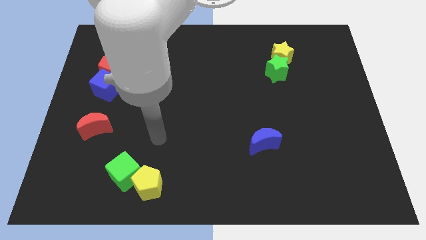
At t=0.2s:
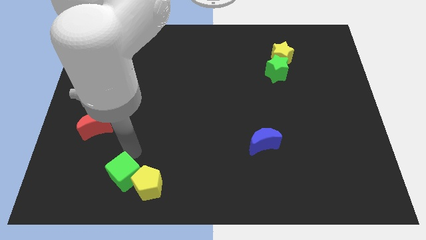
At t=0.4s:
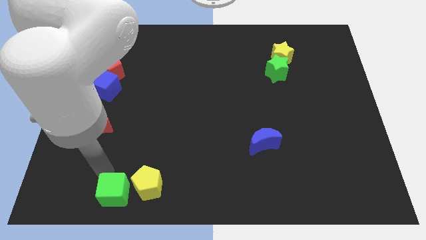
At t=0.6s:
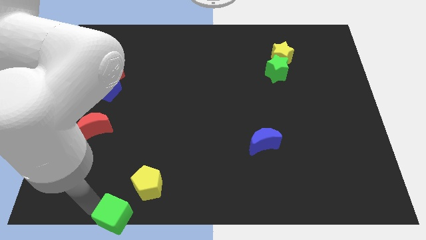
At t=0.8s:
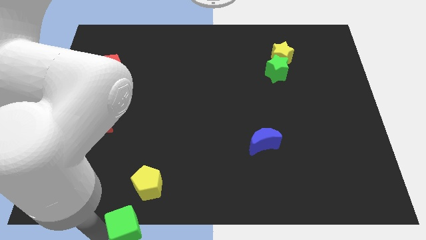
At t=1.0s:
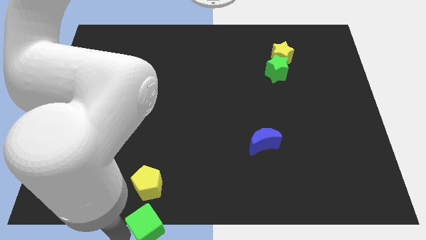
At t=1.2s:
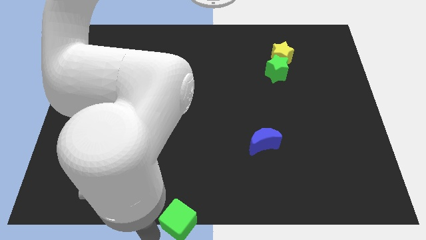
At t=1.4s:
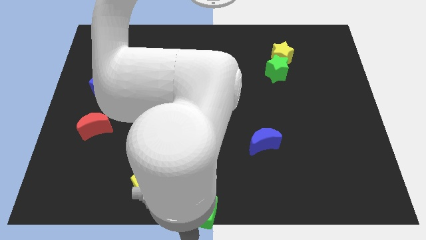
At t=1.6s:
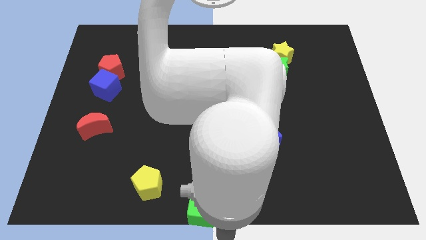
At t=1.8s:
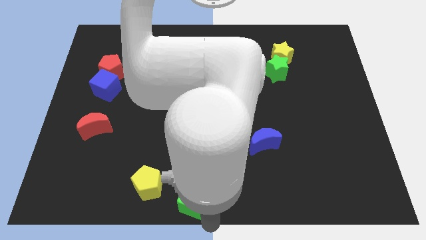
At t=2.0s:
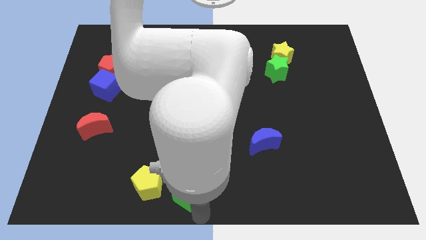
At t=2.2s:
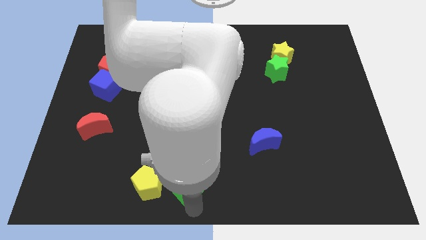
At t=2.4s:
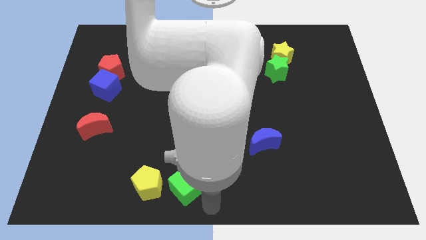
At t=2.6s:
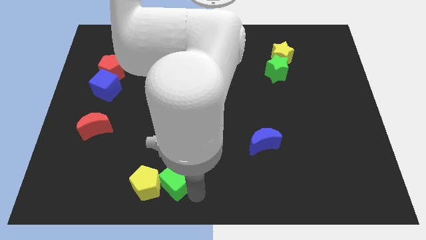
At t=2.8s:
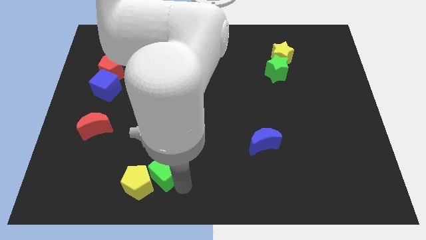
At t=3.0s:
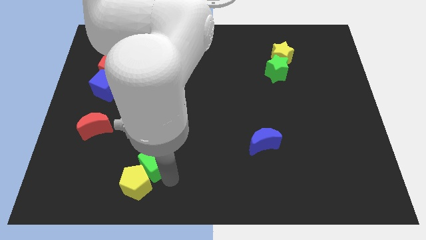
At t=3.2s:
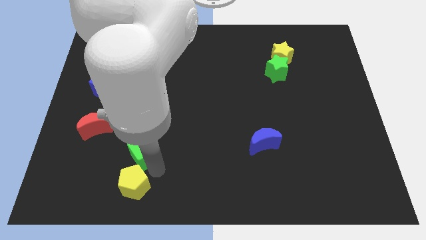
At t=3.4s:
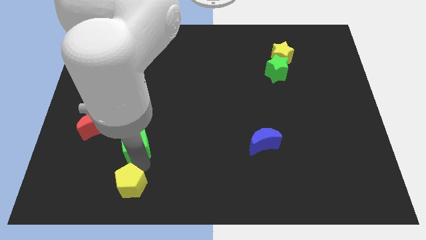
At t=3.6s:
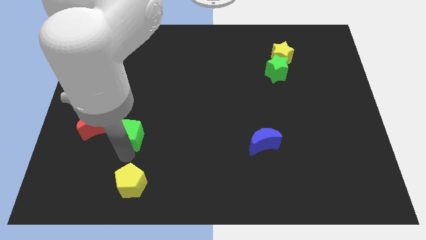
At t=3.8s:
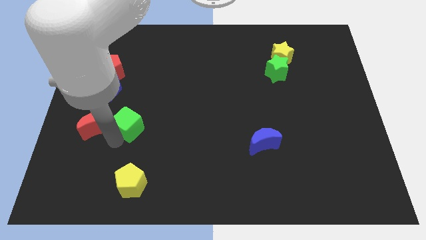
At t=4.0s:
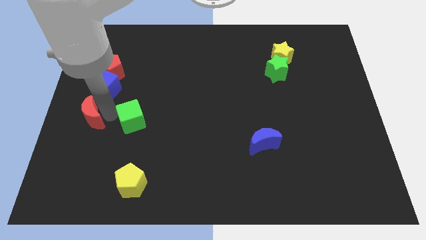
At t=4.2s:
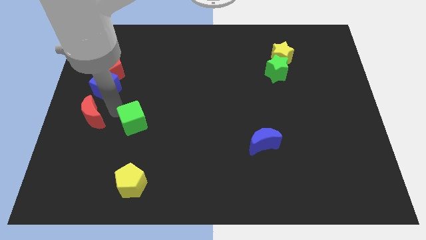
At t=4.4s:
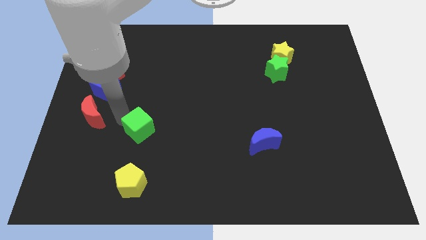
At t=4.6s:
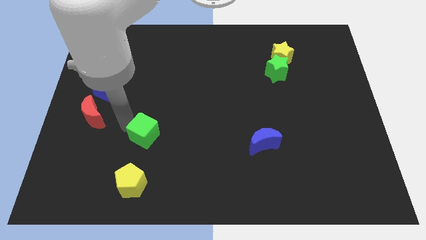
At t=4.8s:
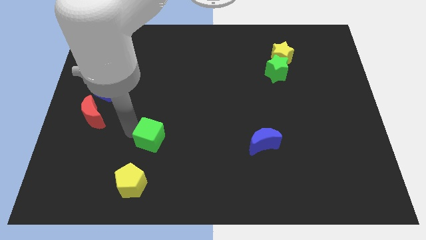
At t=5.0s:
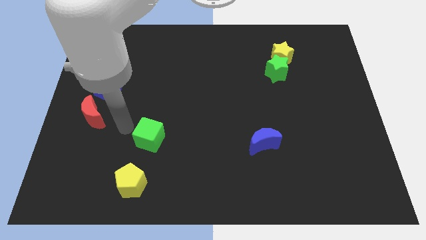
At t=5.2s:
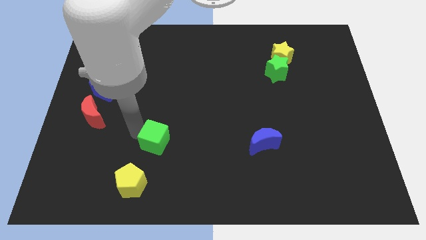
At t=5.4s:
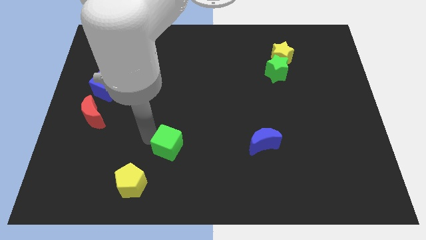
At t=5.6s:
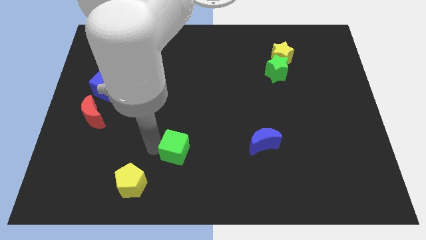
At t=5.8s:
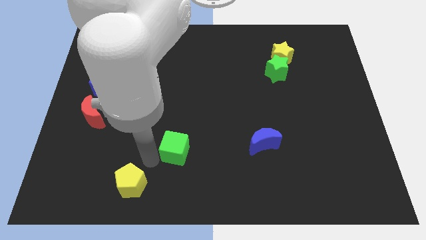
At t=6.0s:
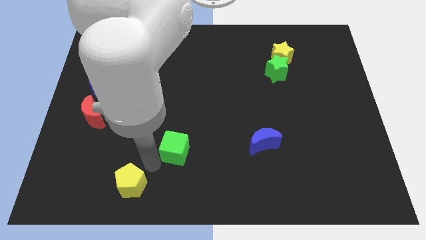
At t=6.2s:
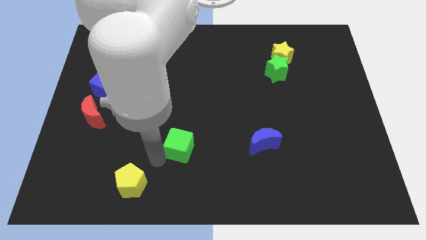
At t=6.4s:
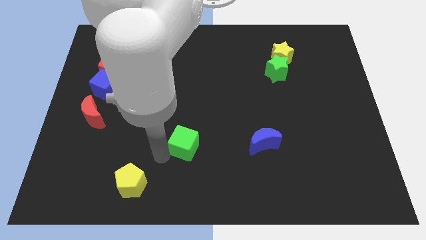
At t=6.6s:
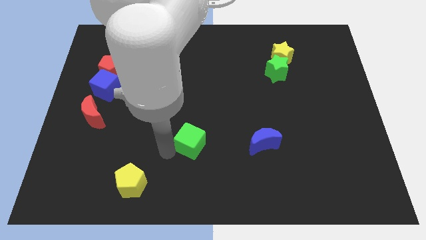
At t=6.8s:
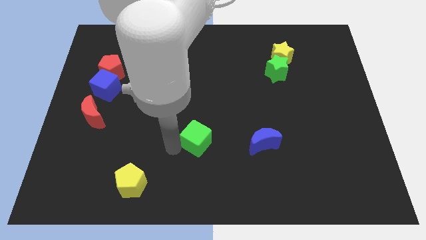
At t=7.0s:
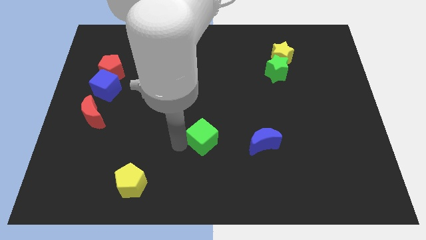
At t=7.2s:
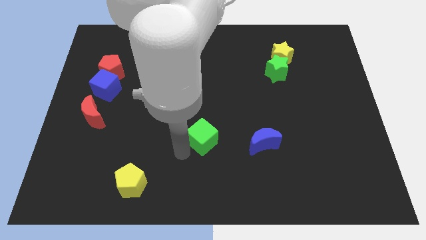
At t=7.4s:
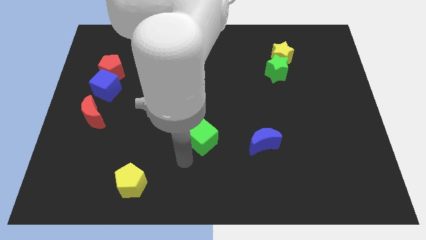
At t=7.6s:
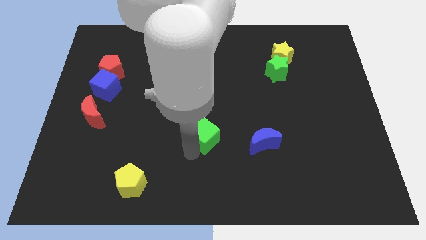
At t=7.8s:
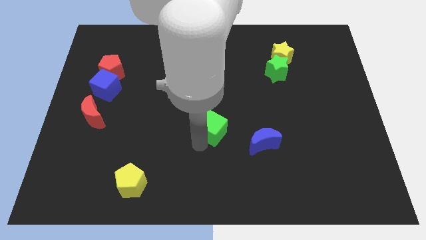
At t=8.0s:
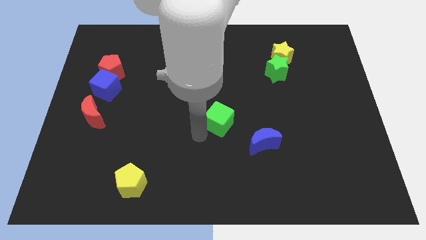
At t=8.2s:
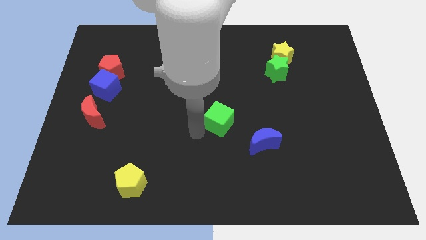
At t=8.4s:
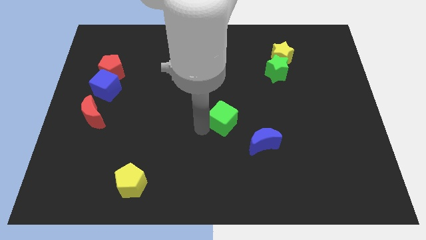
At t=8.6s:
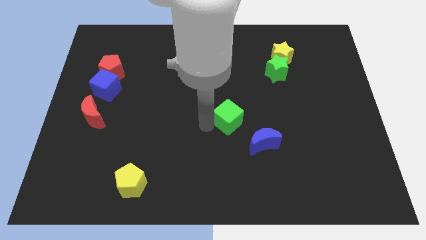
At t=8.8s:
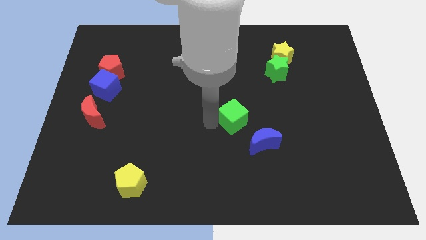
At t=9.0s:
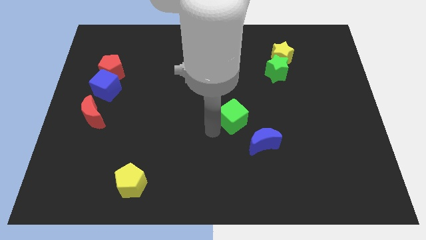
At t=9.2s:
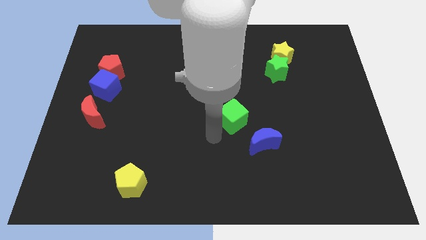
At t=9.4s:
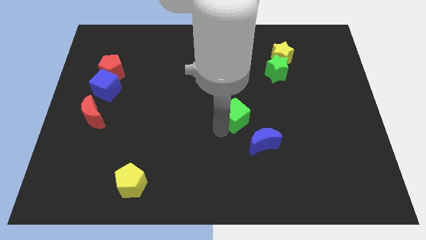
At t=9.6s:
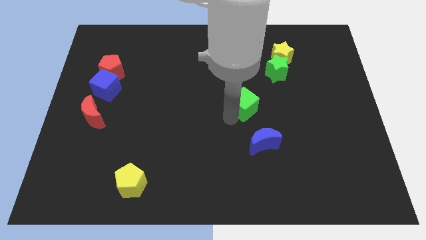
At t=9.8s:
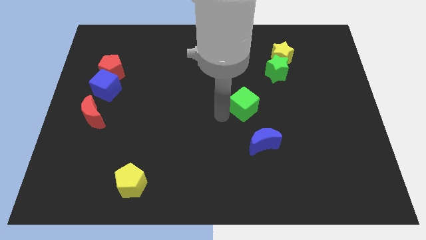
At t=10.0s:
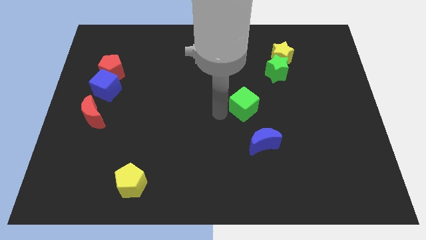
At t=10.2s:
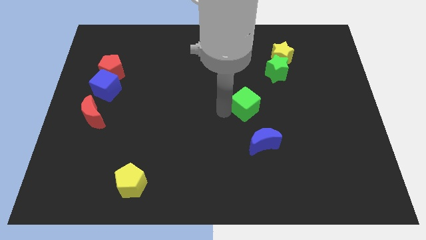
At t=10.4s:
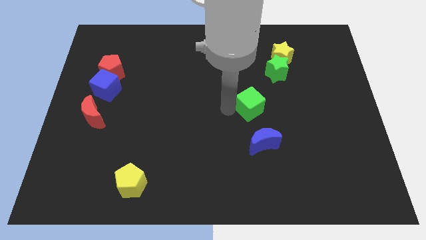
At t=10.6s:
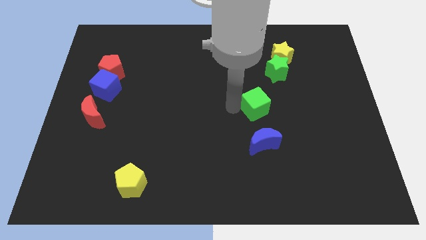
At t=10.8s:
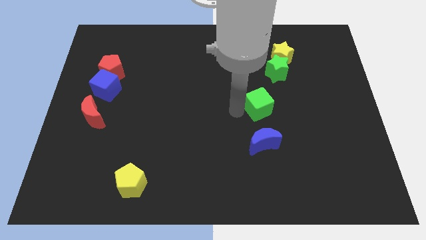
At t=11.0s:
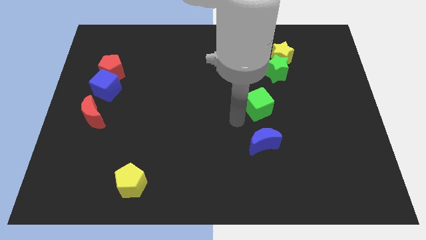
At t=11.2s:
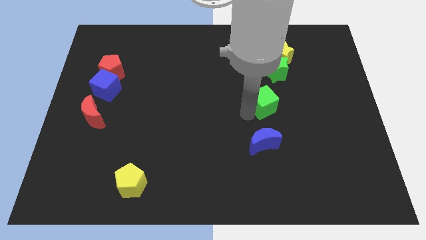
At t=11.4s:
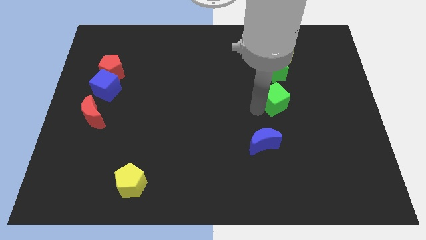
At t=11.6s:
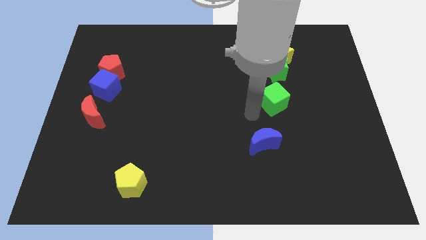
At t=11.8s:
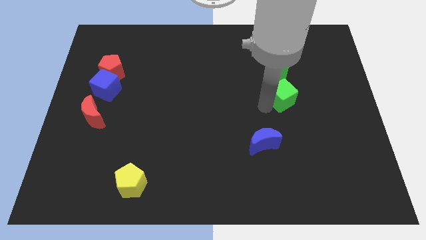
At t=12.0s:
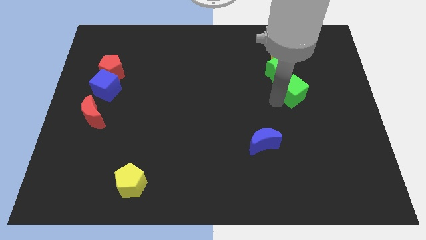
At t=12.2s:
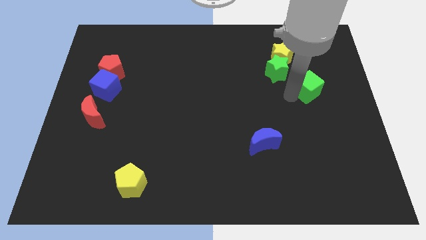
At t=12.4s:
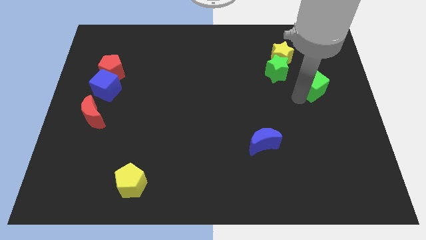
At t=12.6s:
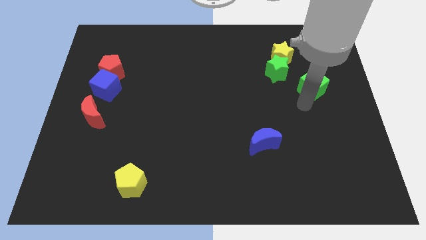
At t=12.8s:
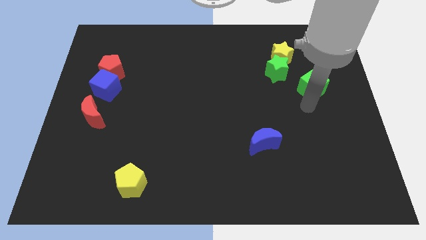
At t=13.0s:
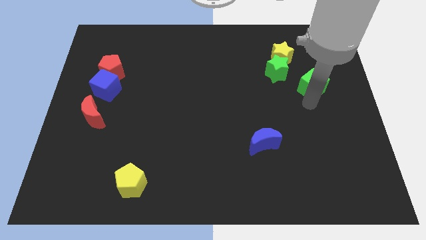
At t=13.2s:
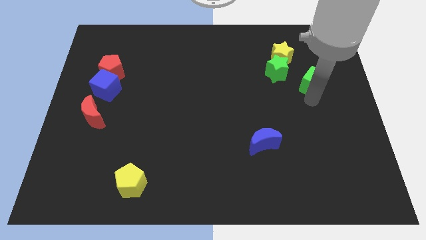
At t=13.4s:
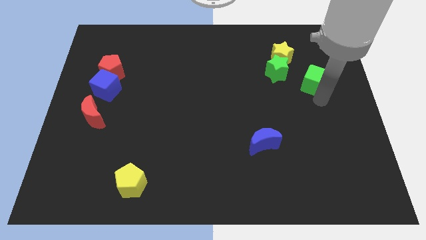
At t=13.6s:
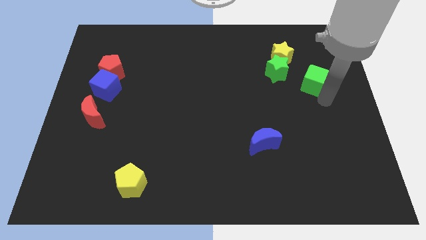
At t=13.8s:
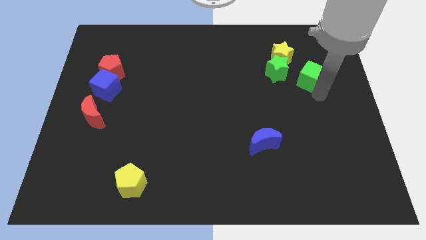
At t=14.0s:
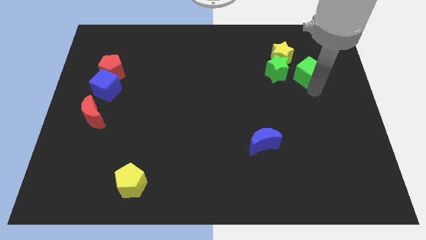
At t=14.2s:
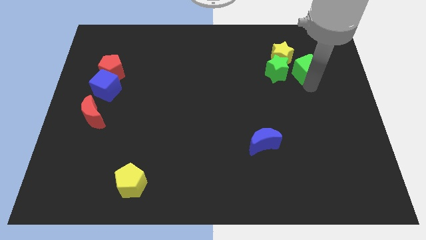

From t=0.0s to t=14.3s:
put the green cube to the top right of the green star
